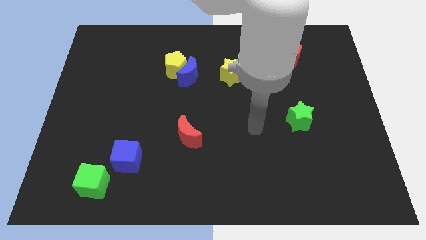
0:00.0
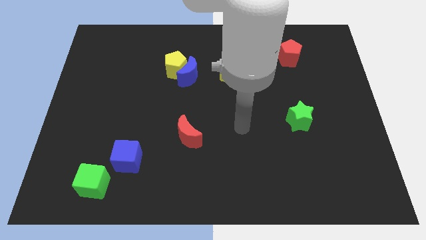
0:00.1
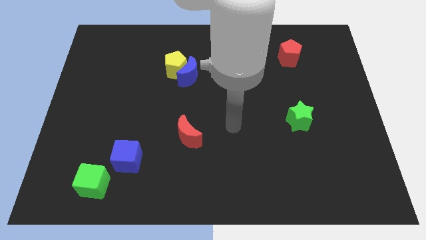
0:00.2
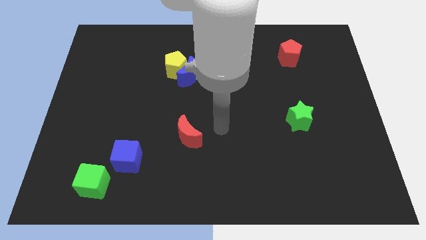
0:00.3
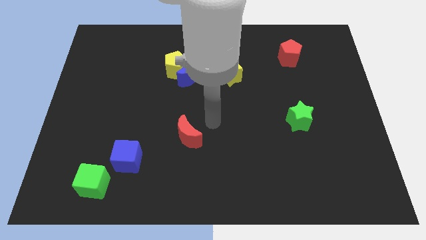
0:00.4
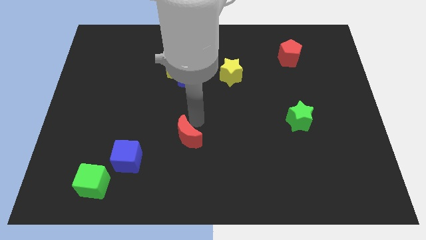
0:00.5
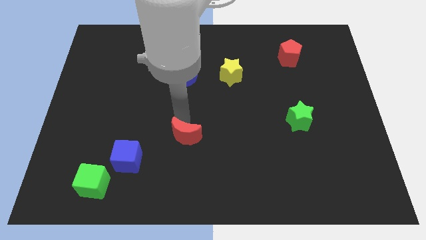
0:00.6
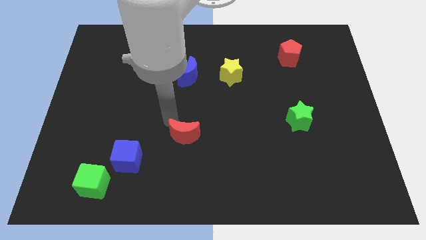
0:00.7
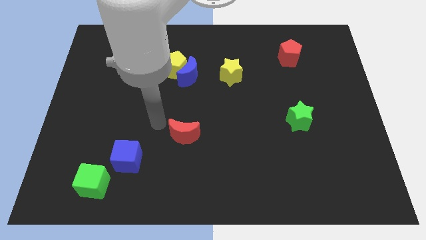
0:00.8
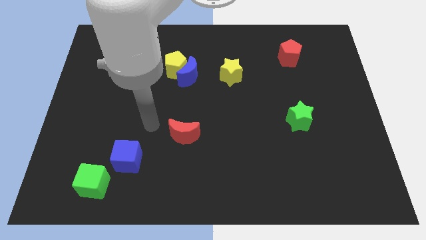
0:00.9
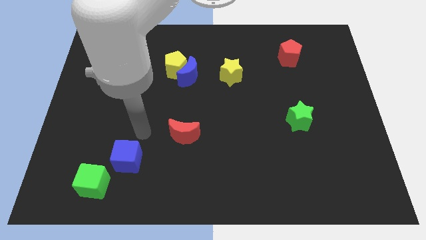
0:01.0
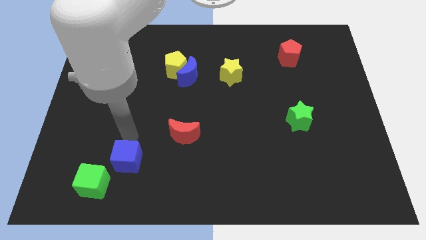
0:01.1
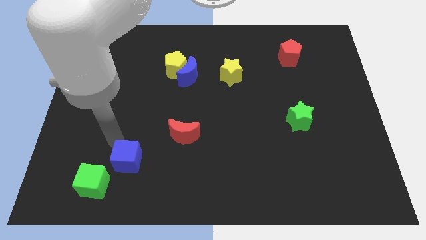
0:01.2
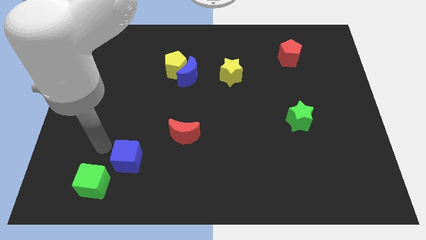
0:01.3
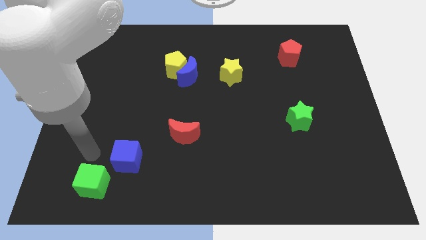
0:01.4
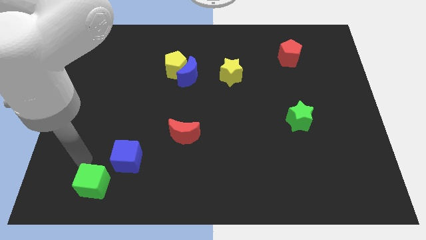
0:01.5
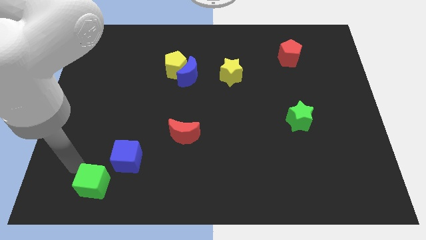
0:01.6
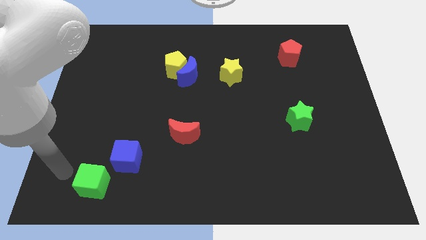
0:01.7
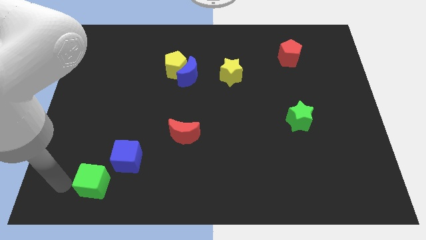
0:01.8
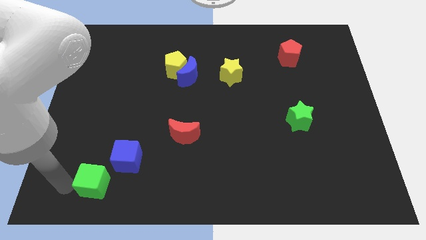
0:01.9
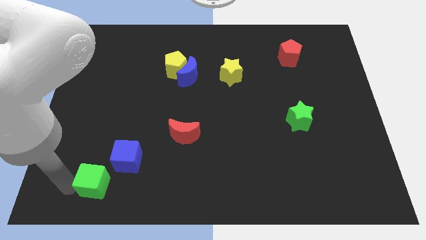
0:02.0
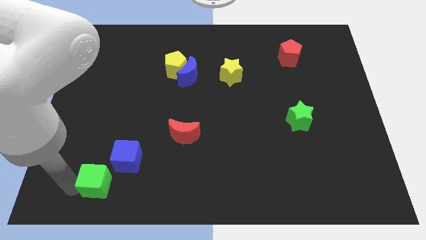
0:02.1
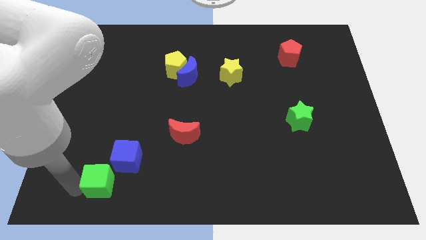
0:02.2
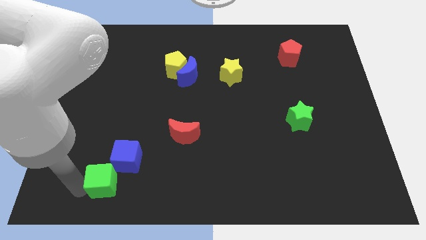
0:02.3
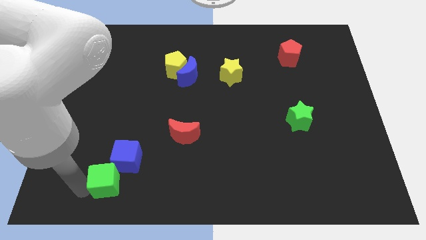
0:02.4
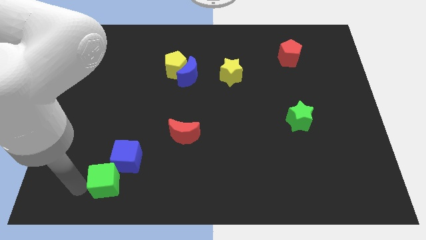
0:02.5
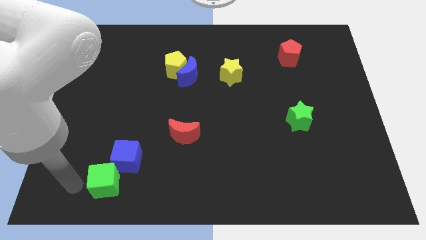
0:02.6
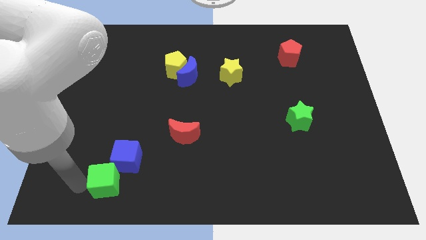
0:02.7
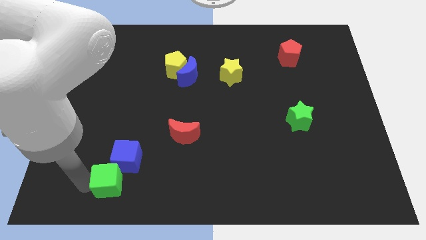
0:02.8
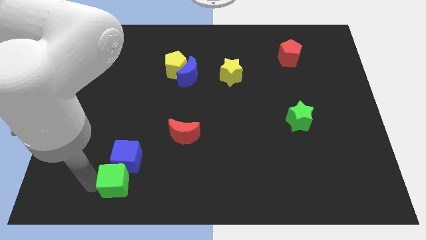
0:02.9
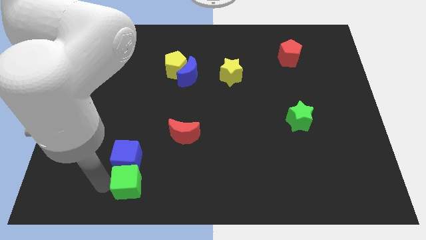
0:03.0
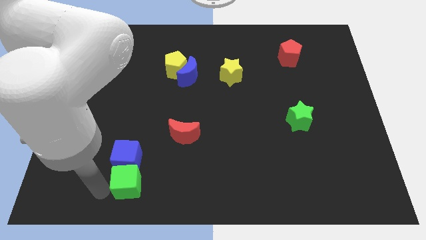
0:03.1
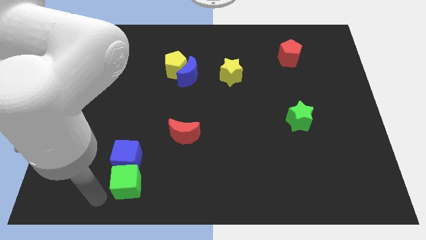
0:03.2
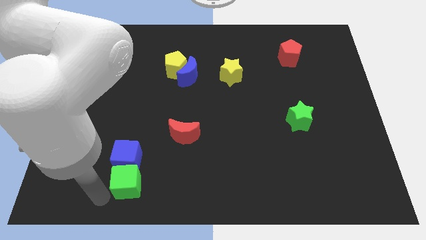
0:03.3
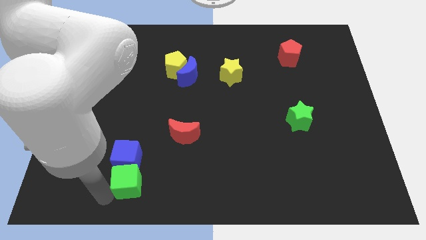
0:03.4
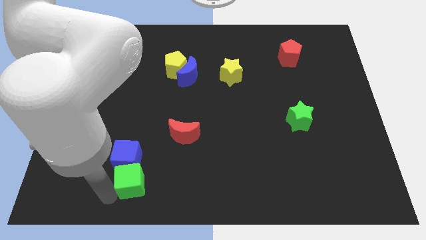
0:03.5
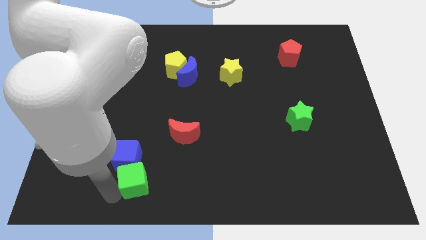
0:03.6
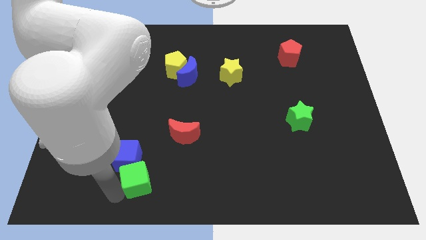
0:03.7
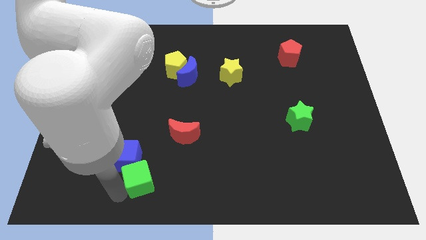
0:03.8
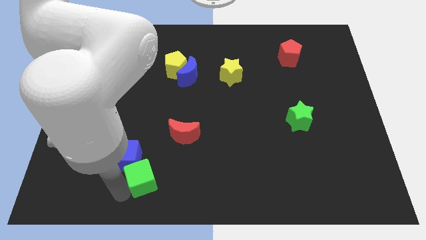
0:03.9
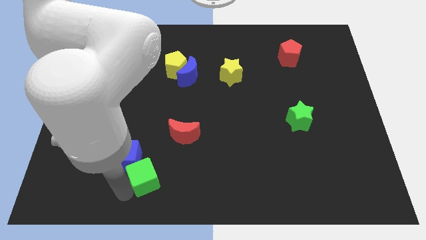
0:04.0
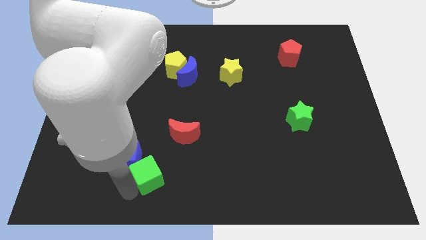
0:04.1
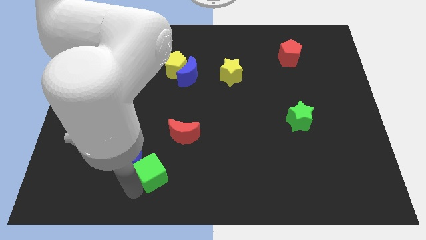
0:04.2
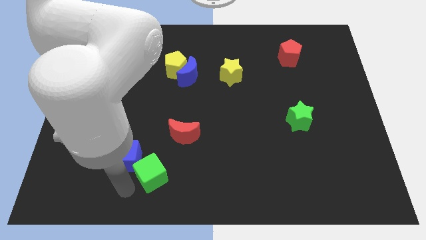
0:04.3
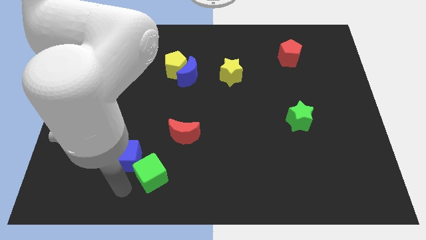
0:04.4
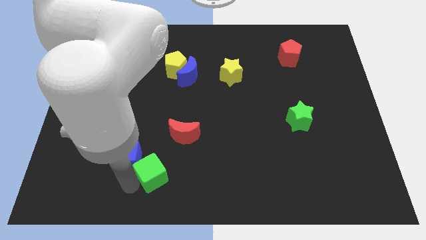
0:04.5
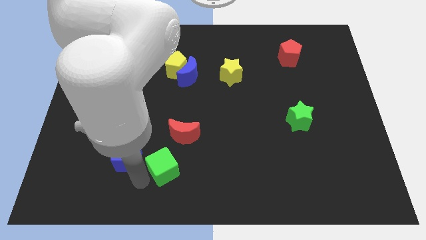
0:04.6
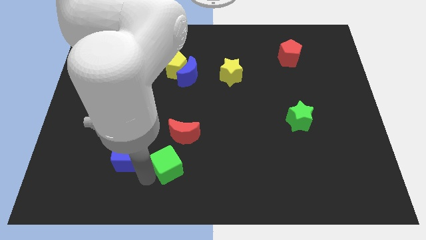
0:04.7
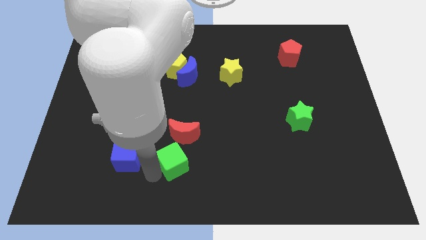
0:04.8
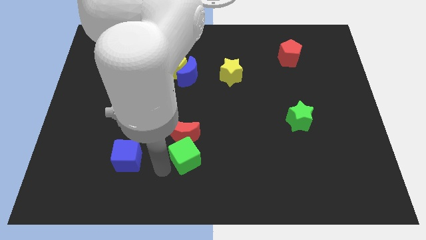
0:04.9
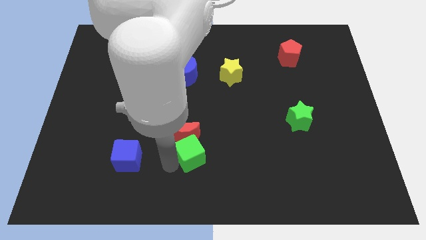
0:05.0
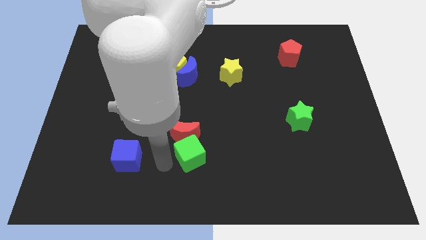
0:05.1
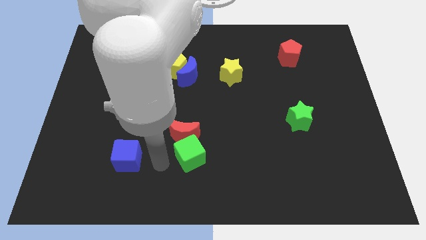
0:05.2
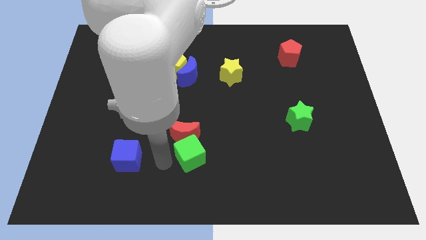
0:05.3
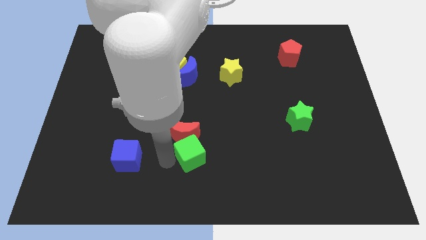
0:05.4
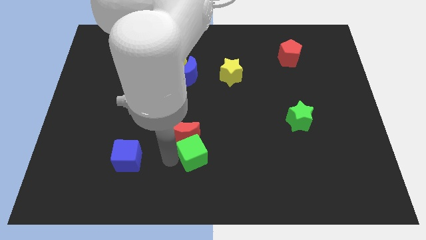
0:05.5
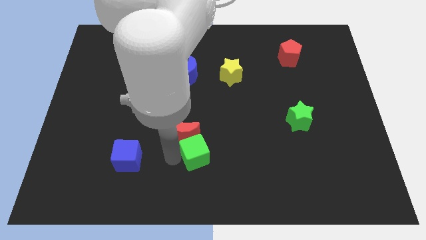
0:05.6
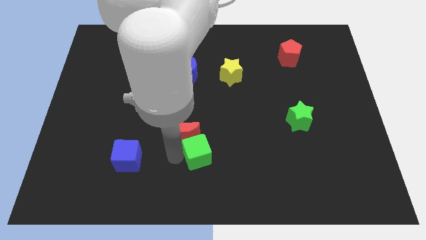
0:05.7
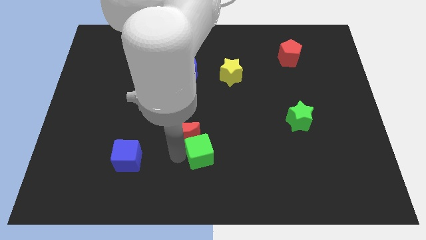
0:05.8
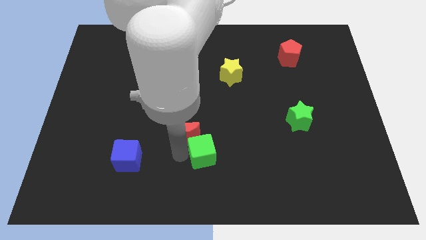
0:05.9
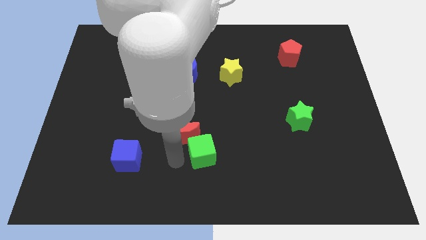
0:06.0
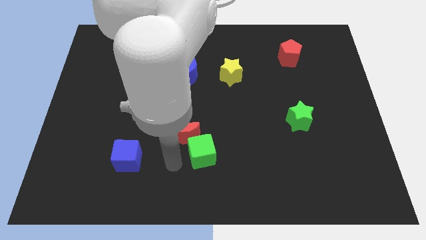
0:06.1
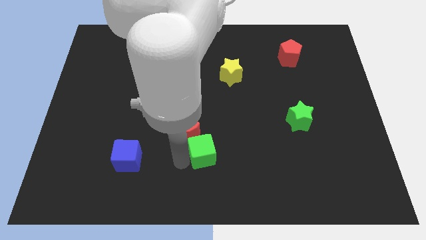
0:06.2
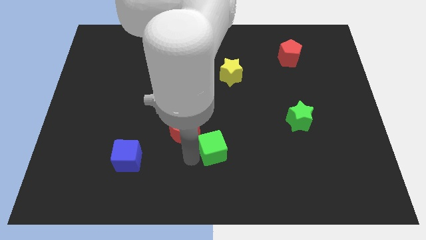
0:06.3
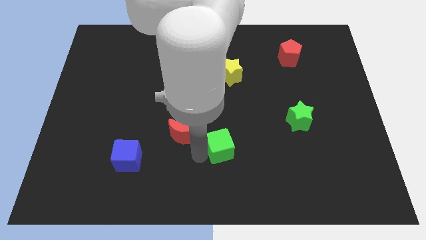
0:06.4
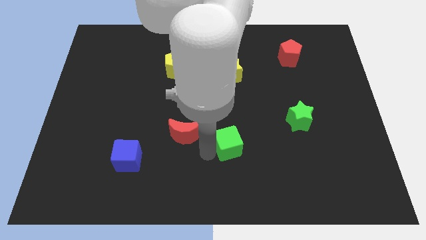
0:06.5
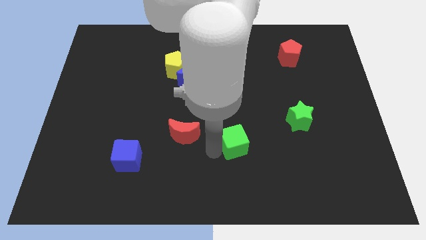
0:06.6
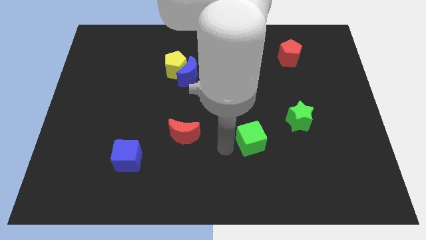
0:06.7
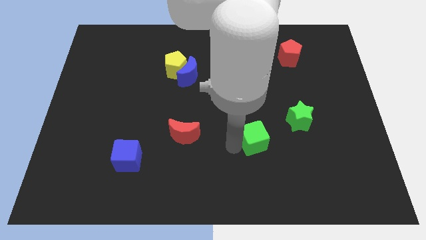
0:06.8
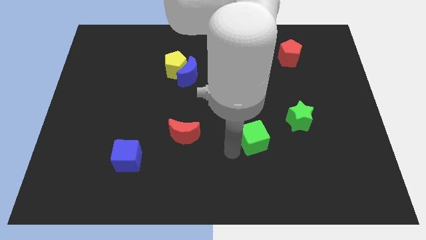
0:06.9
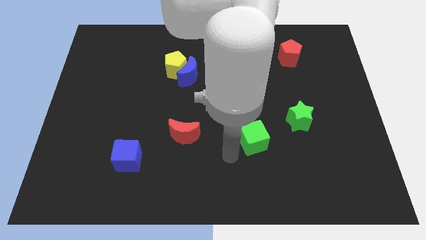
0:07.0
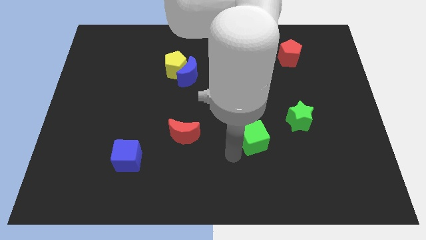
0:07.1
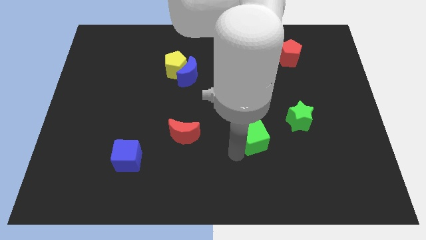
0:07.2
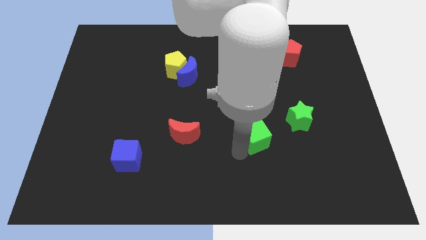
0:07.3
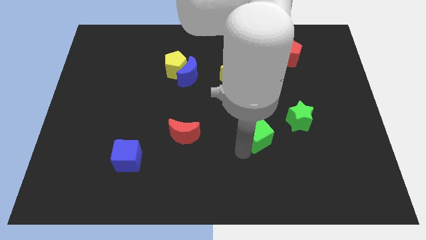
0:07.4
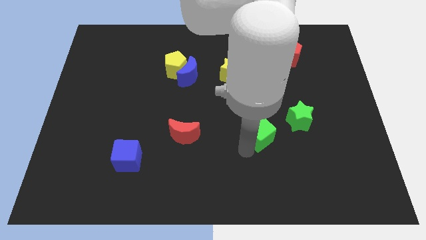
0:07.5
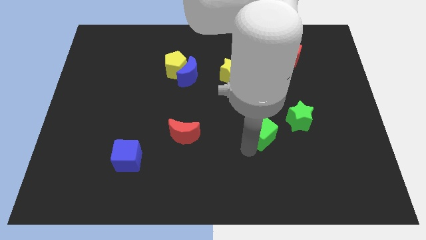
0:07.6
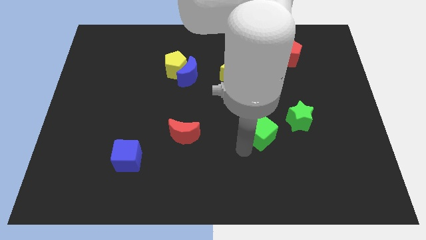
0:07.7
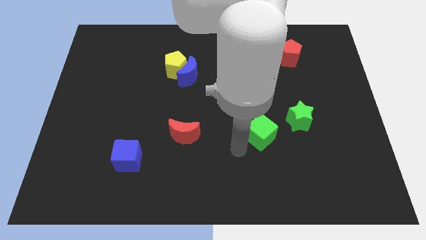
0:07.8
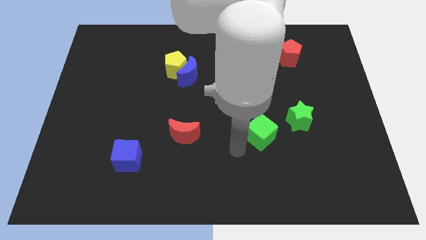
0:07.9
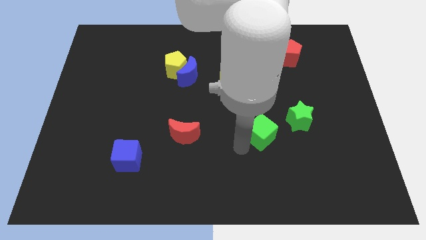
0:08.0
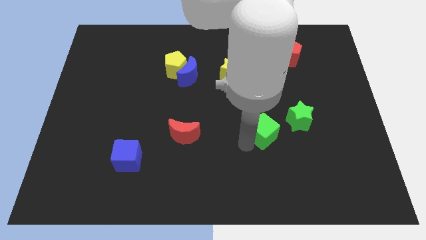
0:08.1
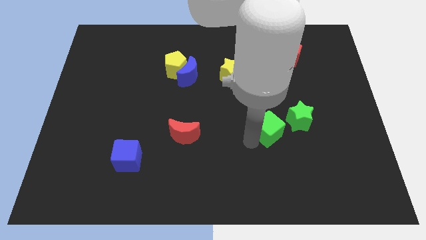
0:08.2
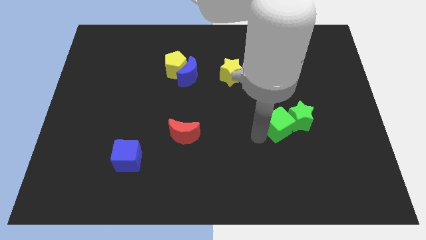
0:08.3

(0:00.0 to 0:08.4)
move the green cube towards the green star
